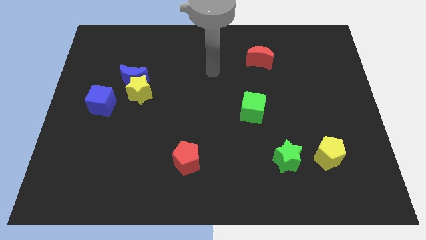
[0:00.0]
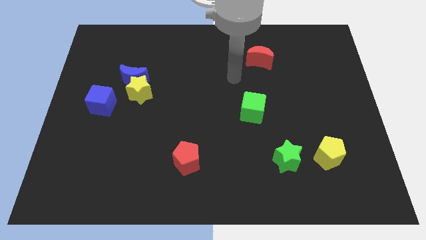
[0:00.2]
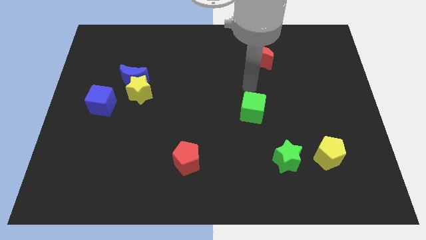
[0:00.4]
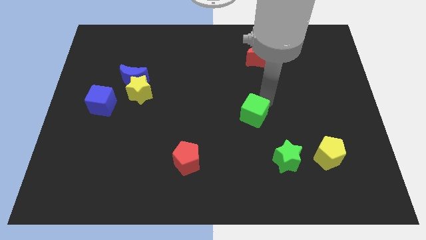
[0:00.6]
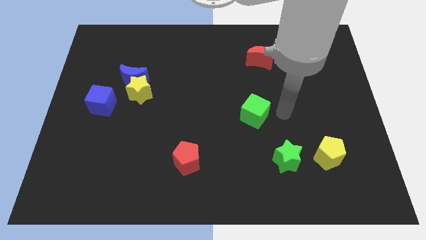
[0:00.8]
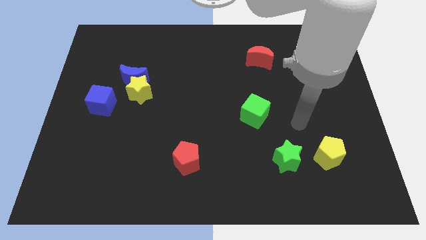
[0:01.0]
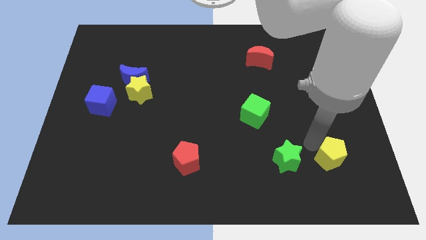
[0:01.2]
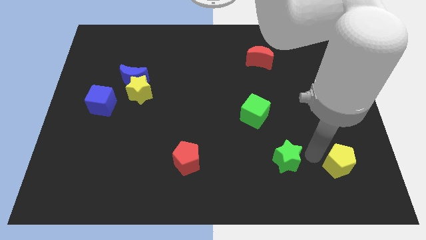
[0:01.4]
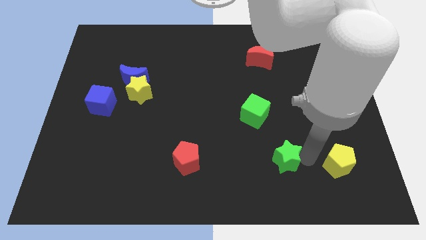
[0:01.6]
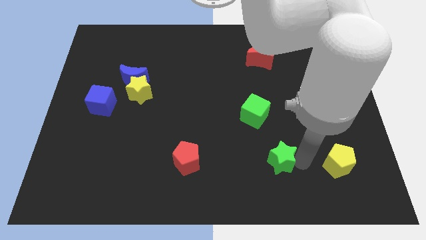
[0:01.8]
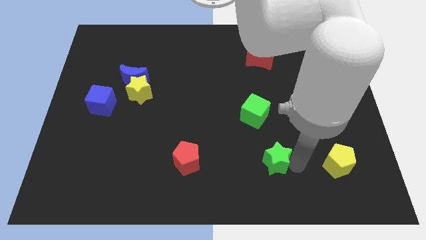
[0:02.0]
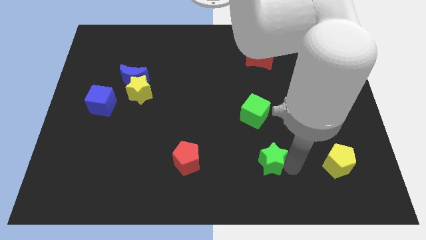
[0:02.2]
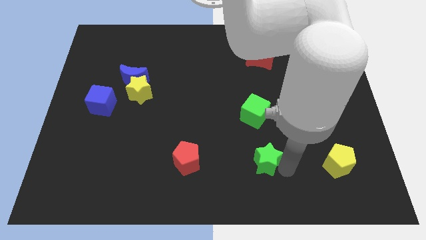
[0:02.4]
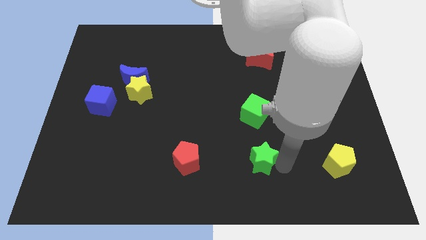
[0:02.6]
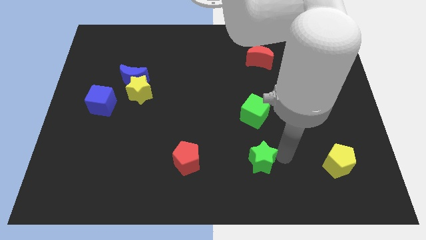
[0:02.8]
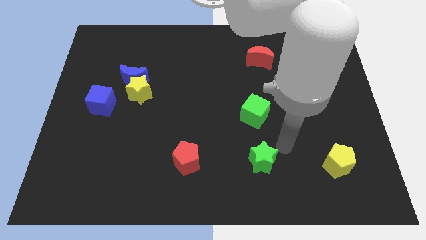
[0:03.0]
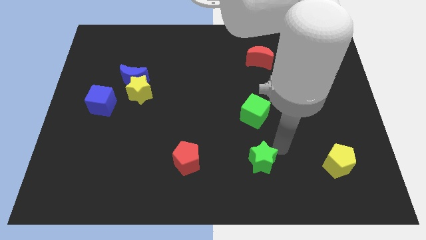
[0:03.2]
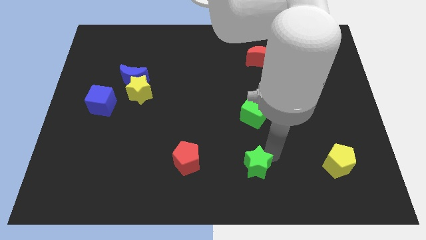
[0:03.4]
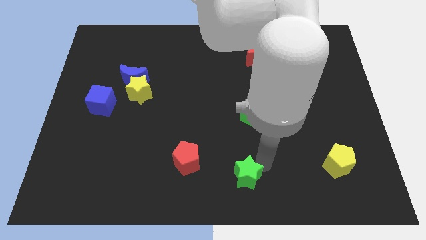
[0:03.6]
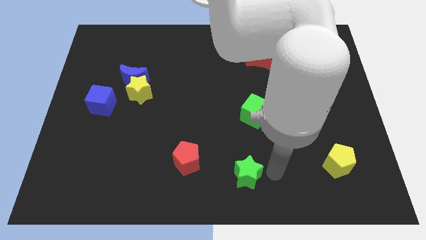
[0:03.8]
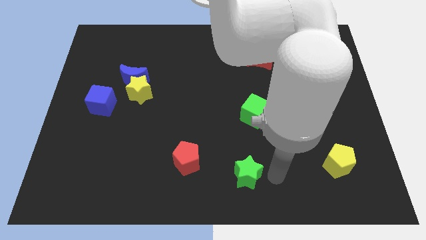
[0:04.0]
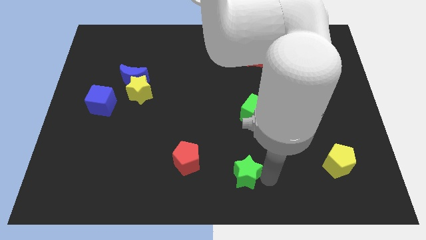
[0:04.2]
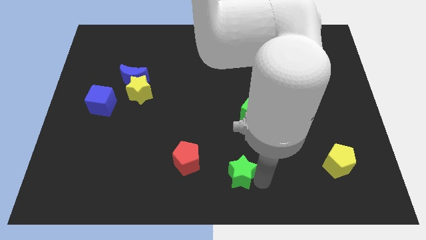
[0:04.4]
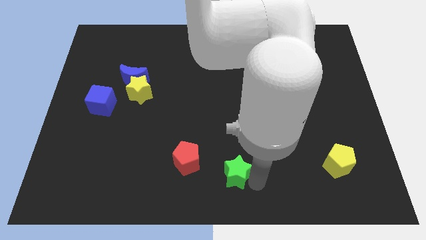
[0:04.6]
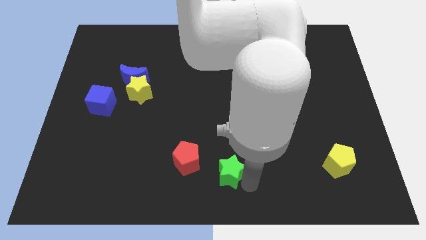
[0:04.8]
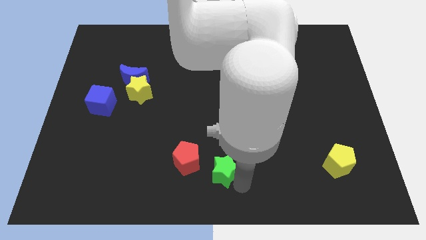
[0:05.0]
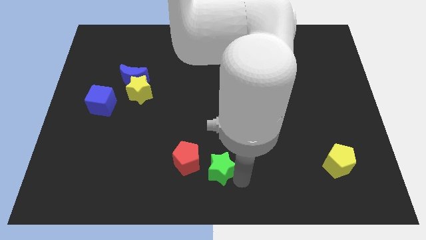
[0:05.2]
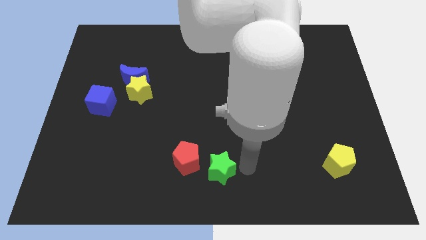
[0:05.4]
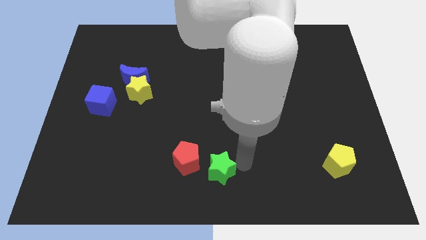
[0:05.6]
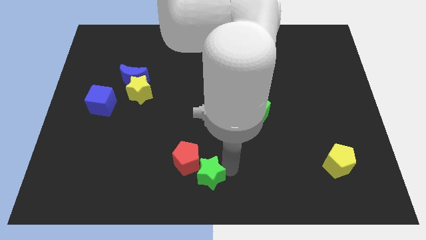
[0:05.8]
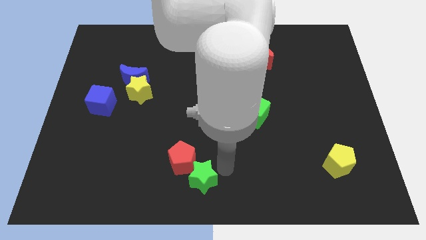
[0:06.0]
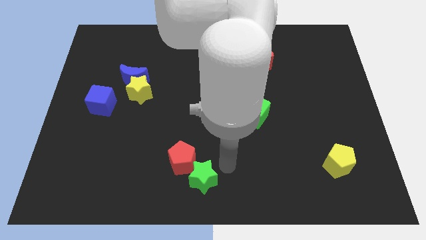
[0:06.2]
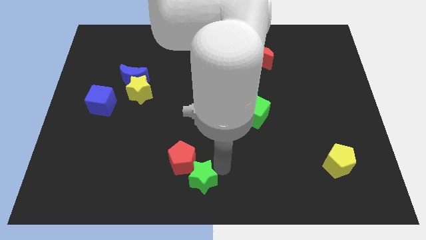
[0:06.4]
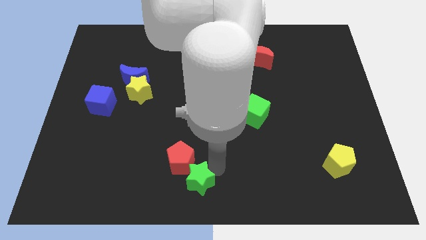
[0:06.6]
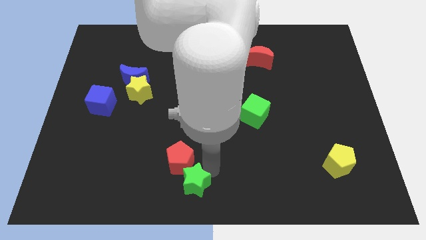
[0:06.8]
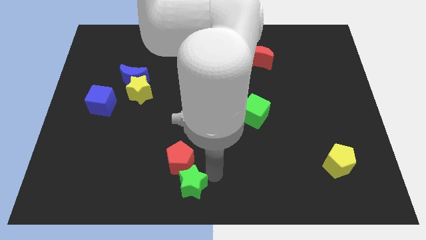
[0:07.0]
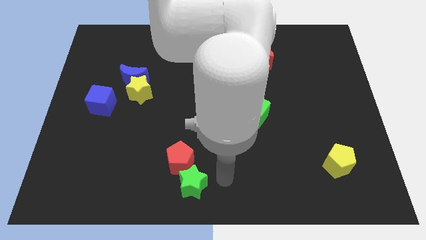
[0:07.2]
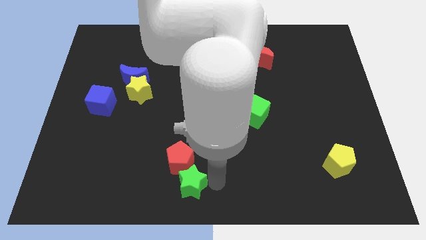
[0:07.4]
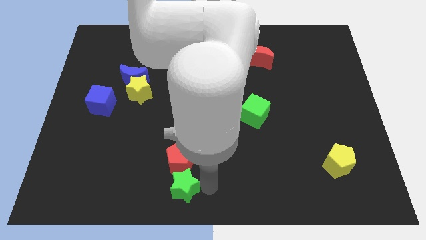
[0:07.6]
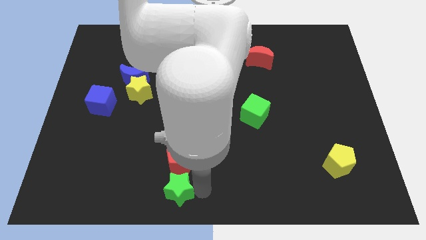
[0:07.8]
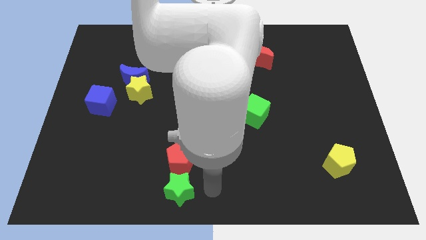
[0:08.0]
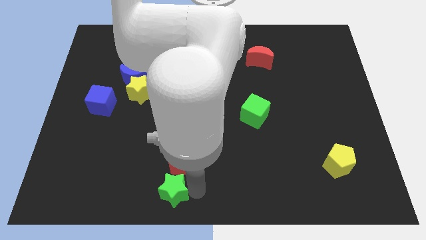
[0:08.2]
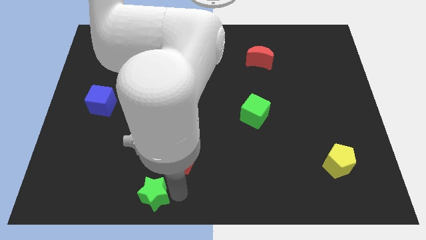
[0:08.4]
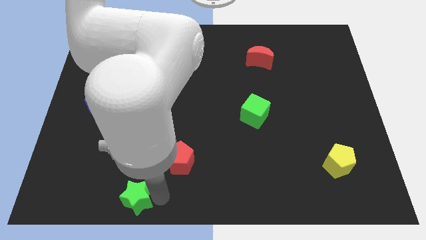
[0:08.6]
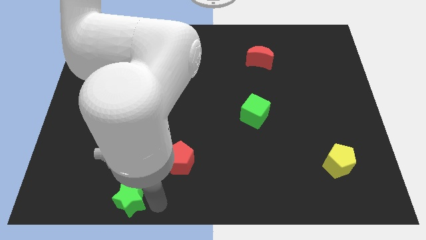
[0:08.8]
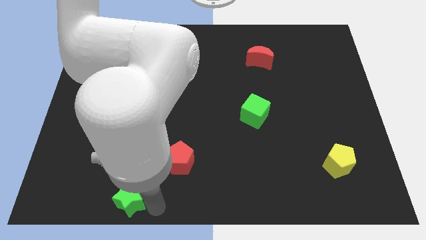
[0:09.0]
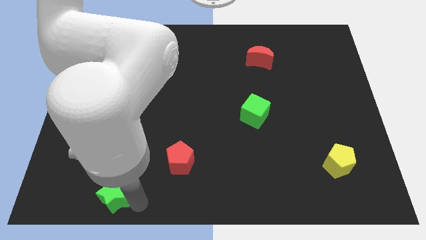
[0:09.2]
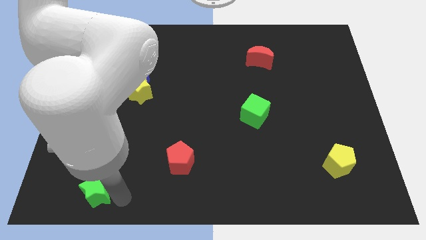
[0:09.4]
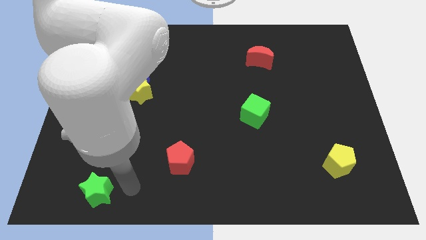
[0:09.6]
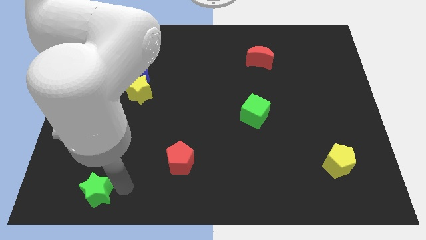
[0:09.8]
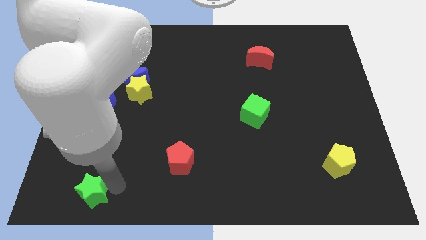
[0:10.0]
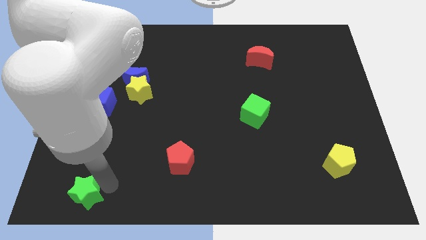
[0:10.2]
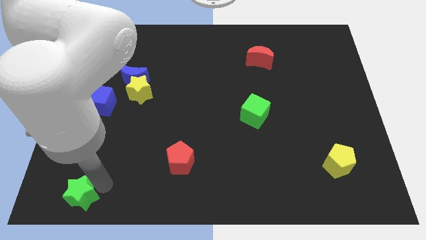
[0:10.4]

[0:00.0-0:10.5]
move the green star to the lower left corner

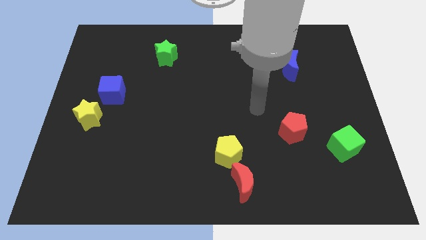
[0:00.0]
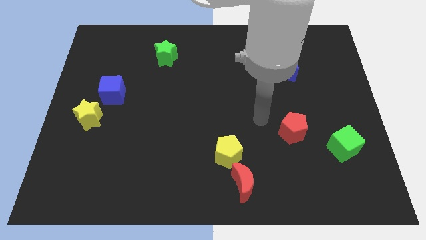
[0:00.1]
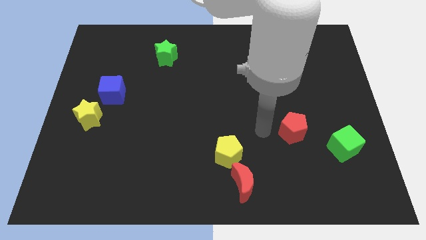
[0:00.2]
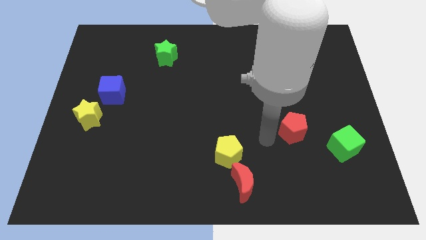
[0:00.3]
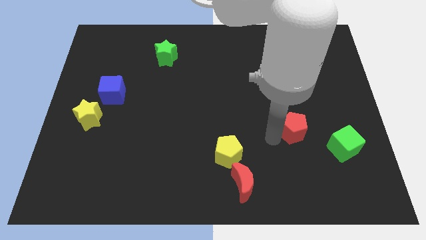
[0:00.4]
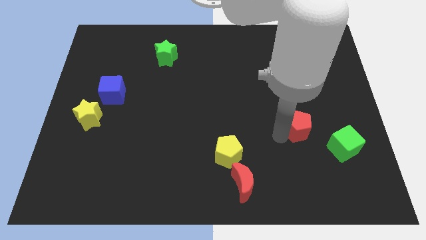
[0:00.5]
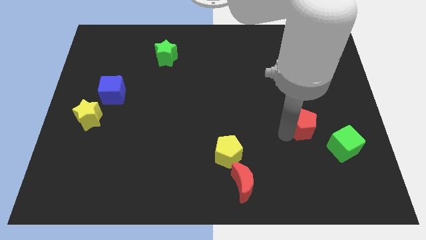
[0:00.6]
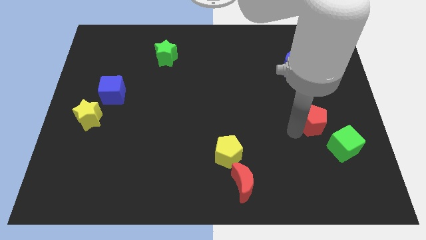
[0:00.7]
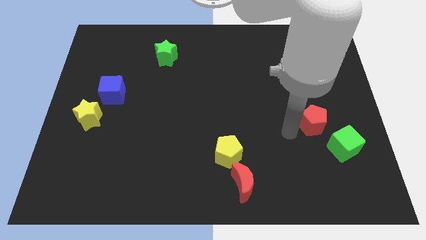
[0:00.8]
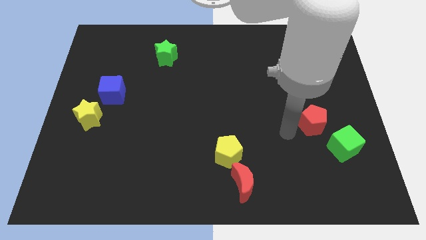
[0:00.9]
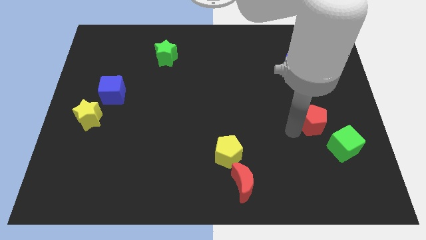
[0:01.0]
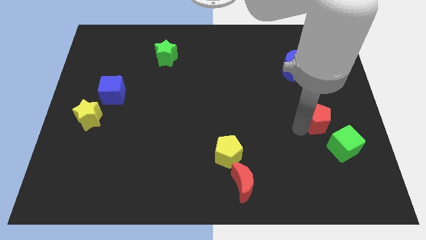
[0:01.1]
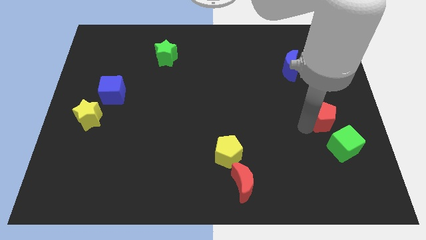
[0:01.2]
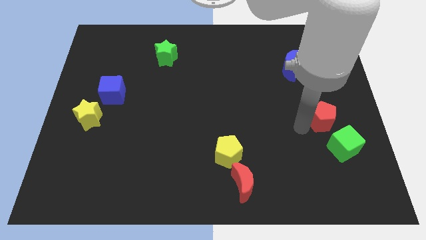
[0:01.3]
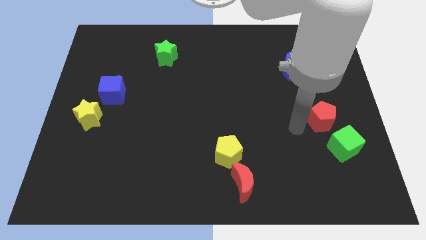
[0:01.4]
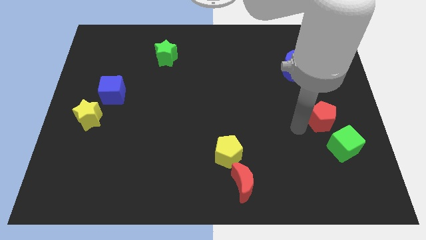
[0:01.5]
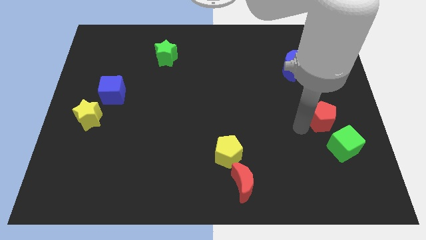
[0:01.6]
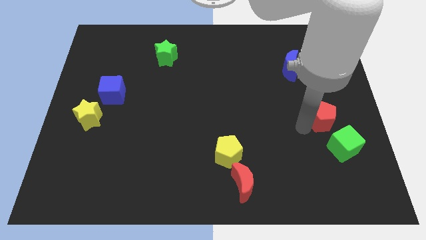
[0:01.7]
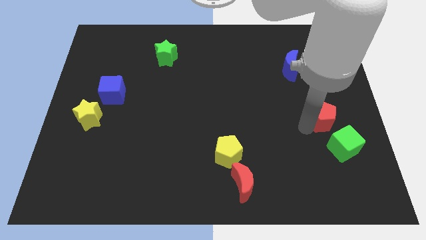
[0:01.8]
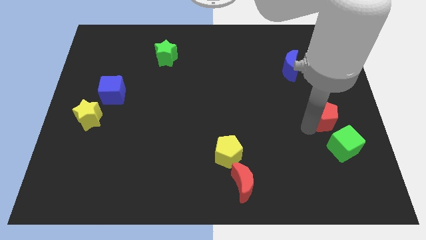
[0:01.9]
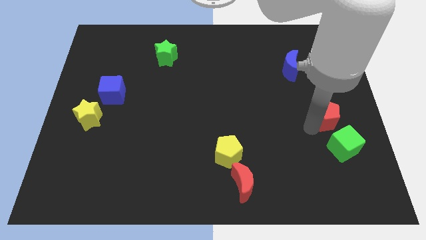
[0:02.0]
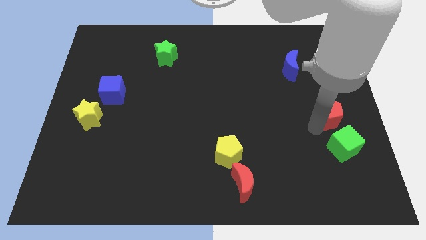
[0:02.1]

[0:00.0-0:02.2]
move the red pentagon to the right side
